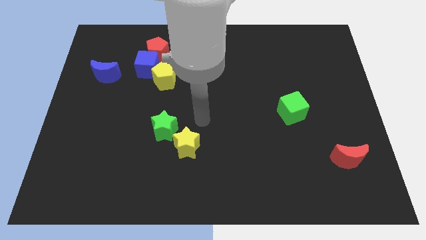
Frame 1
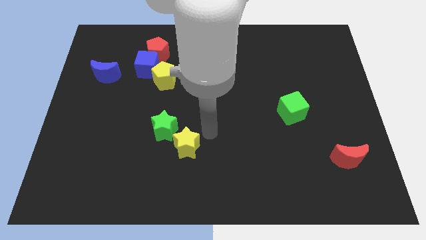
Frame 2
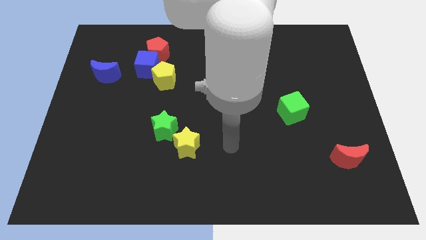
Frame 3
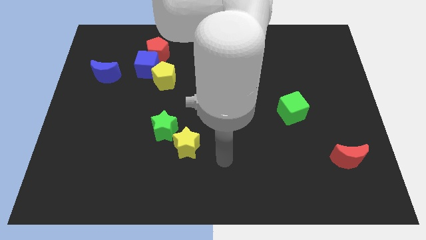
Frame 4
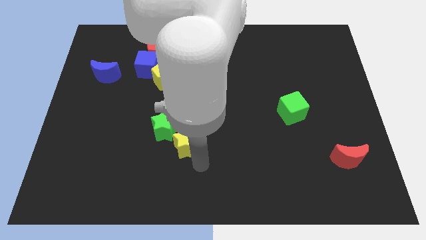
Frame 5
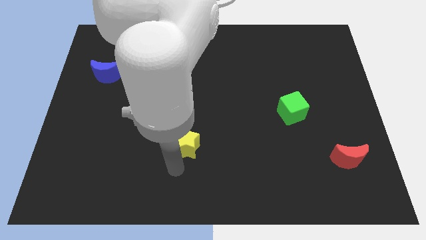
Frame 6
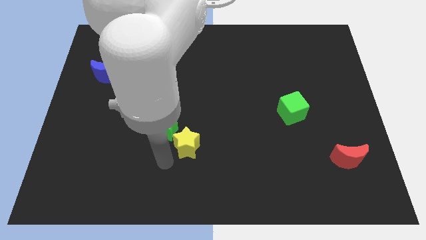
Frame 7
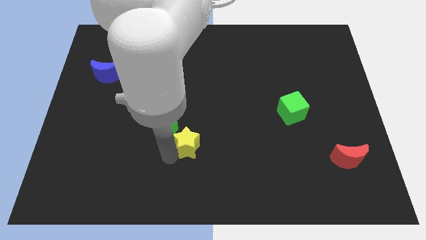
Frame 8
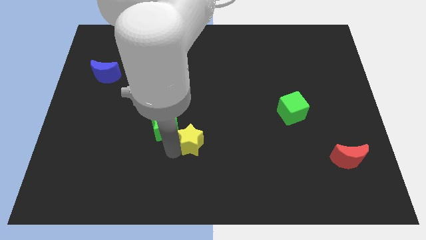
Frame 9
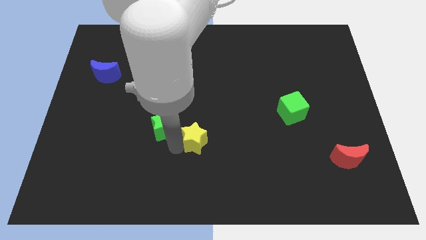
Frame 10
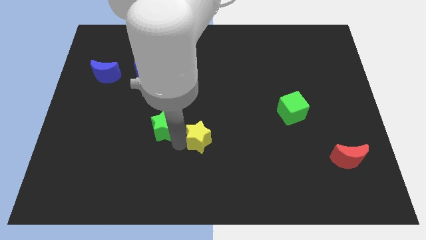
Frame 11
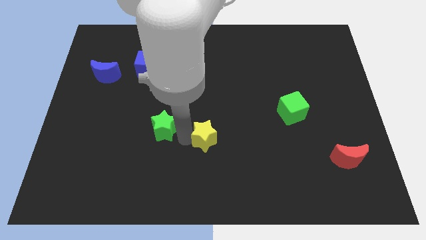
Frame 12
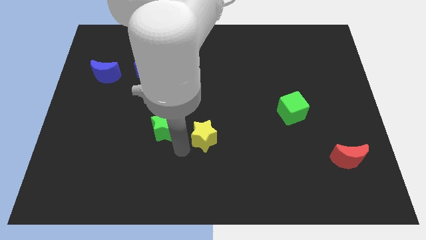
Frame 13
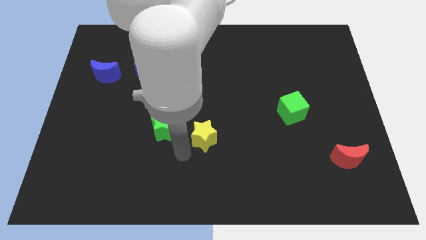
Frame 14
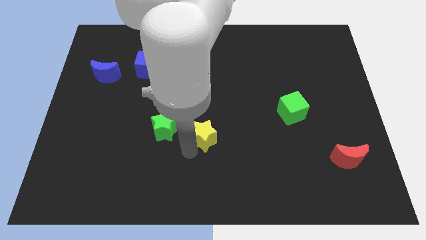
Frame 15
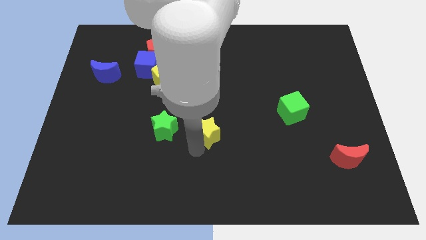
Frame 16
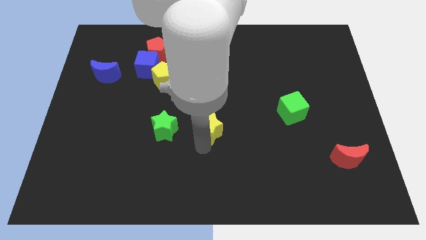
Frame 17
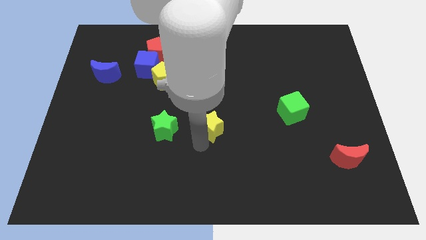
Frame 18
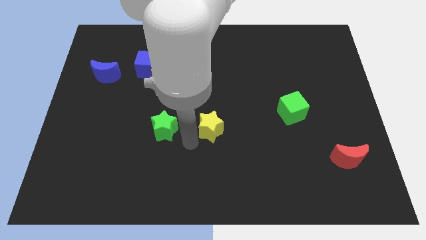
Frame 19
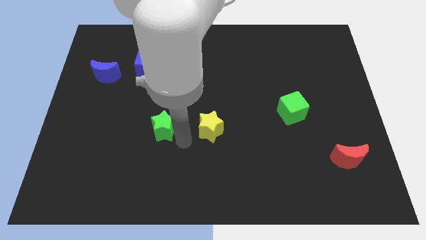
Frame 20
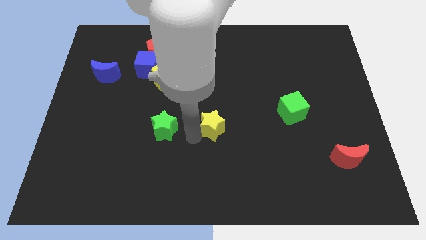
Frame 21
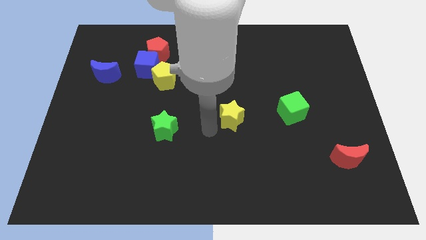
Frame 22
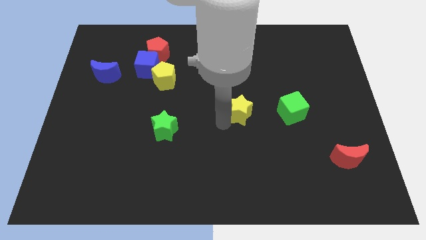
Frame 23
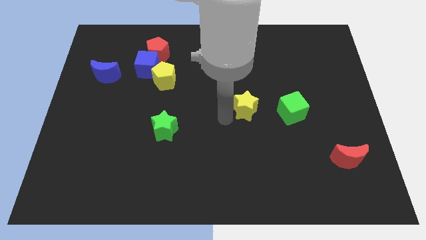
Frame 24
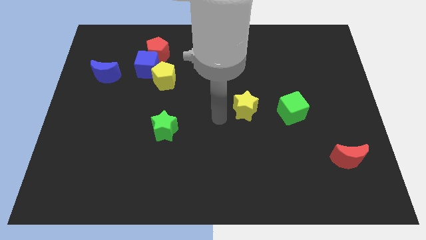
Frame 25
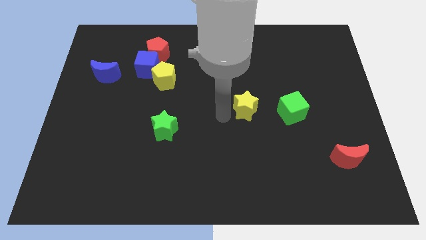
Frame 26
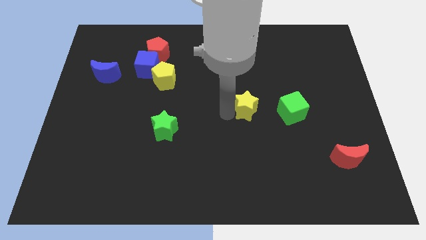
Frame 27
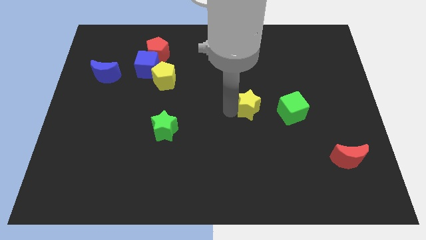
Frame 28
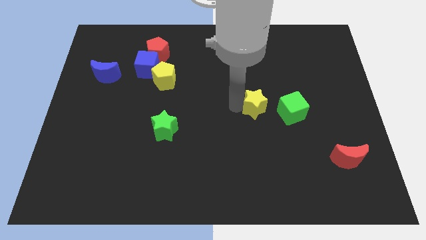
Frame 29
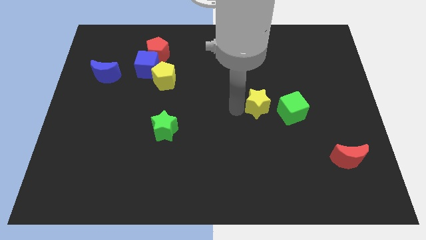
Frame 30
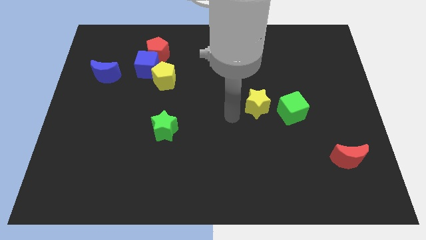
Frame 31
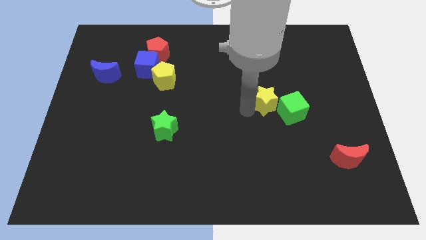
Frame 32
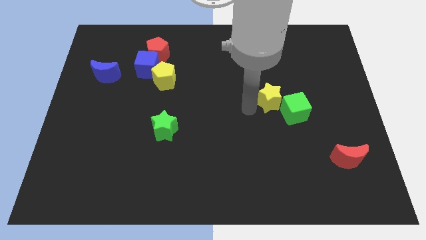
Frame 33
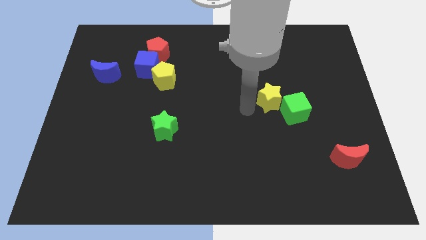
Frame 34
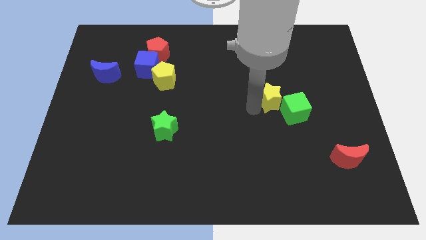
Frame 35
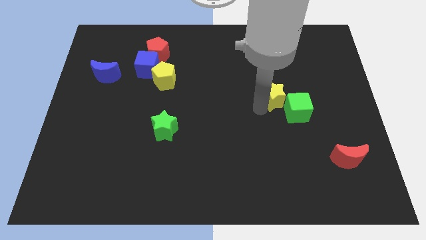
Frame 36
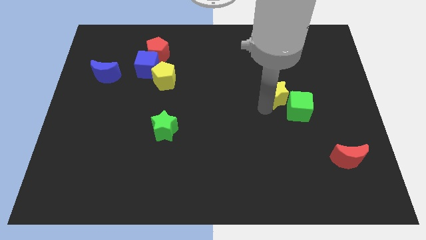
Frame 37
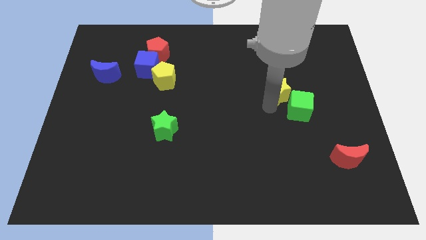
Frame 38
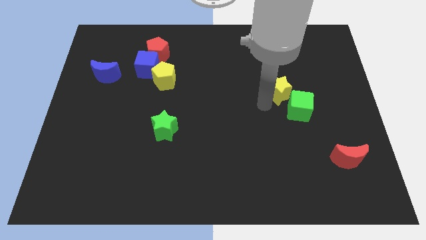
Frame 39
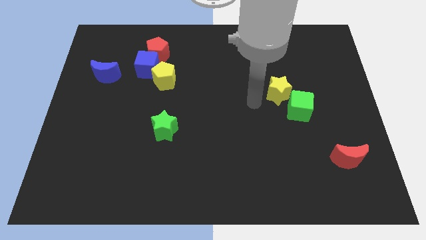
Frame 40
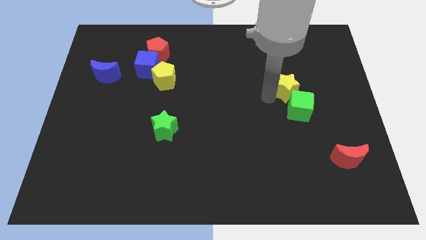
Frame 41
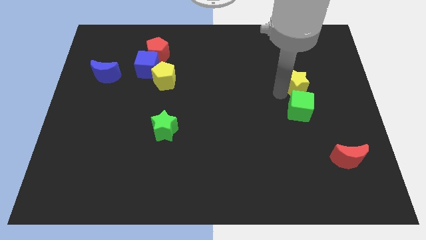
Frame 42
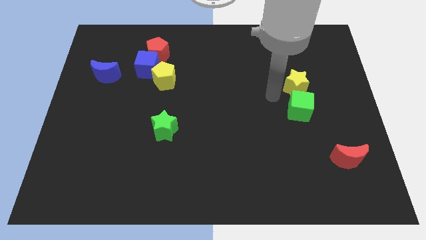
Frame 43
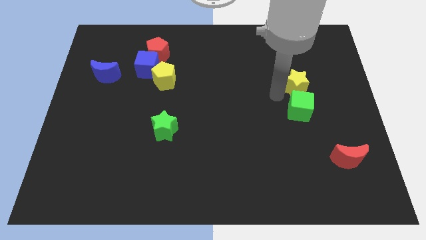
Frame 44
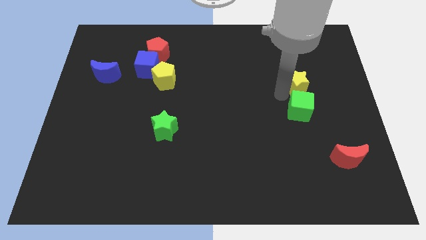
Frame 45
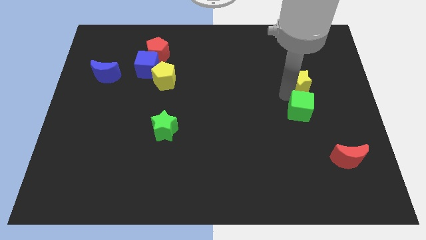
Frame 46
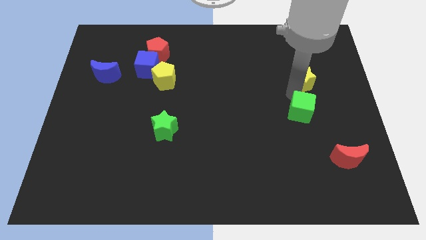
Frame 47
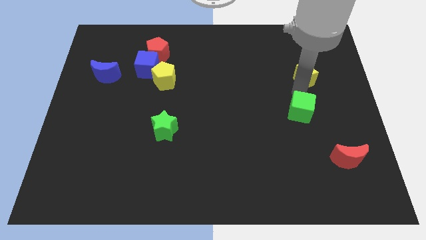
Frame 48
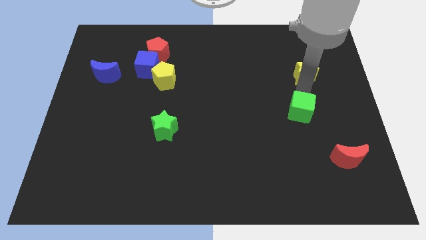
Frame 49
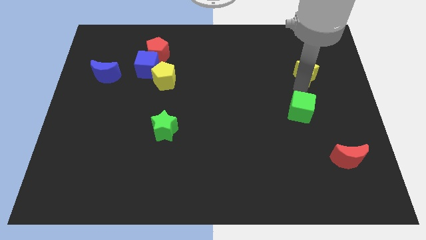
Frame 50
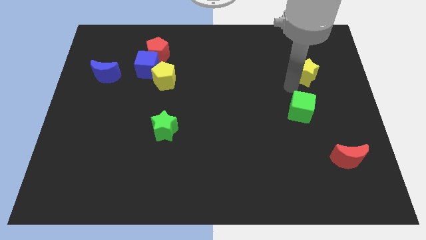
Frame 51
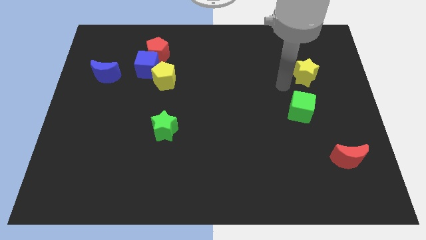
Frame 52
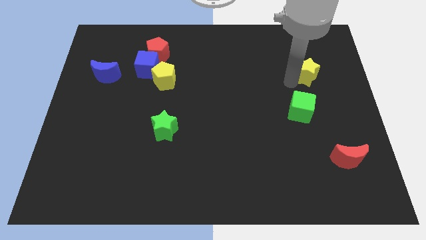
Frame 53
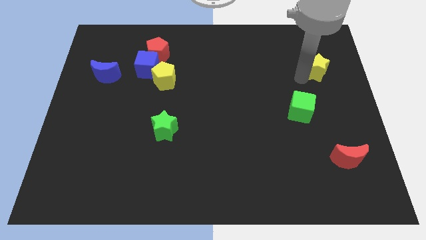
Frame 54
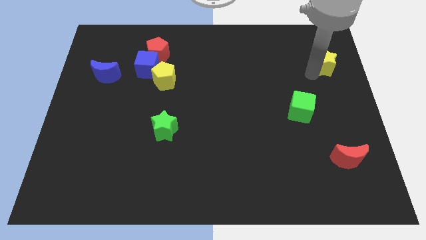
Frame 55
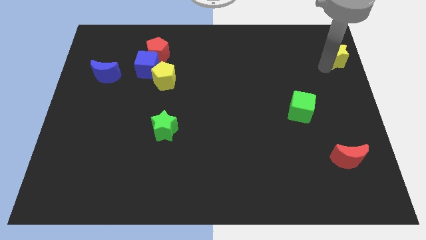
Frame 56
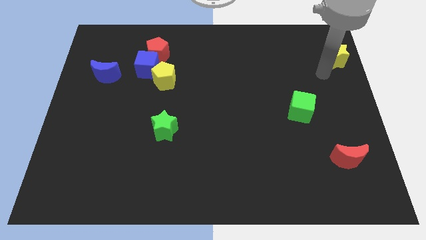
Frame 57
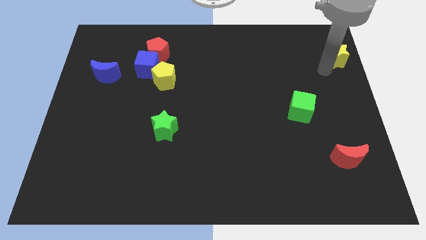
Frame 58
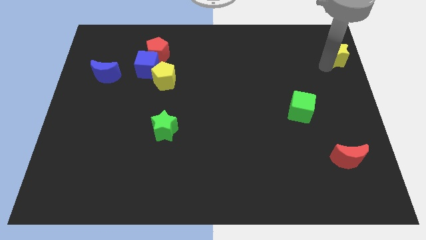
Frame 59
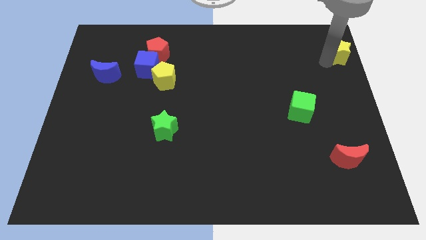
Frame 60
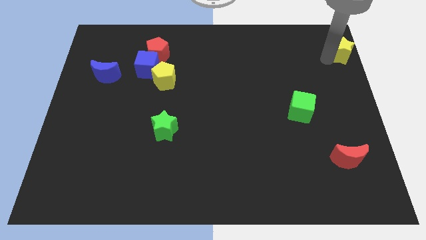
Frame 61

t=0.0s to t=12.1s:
put the yellow star to the top right of the board
